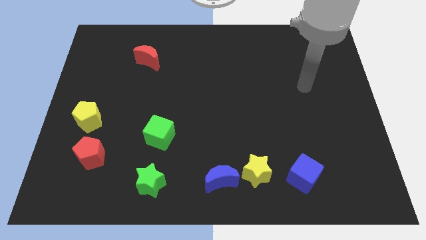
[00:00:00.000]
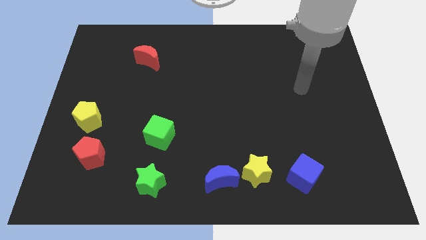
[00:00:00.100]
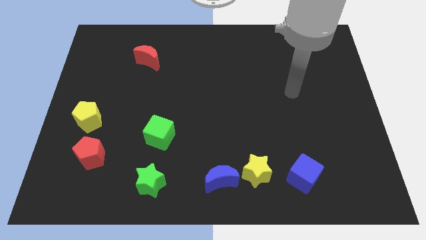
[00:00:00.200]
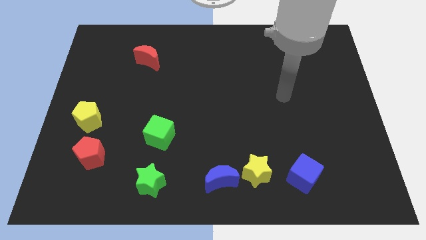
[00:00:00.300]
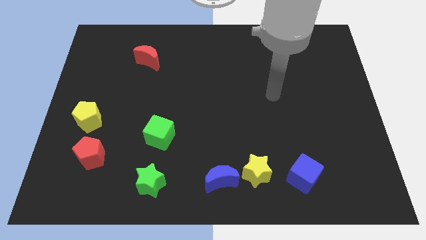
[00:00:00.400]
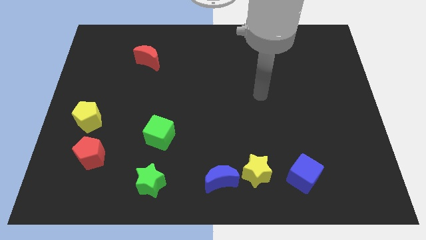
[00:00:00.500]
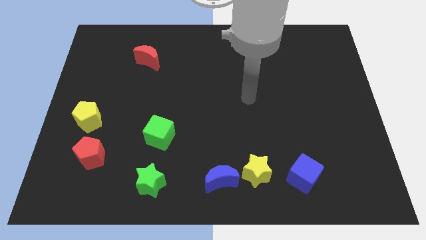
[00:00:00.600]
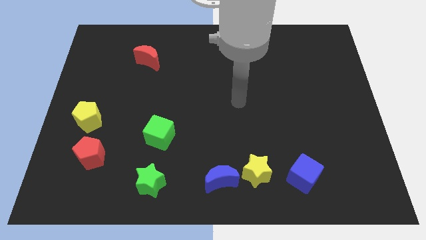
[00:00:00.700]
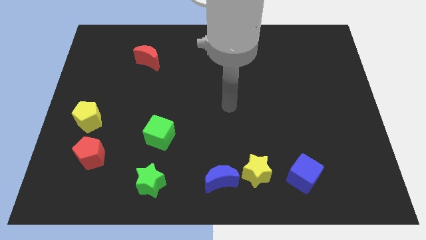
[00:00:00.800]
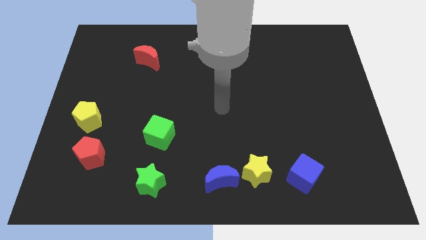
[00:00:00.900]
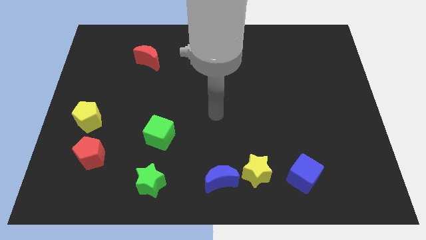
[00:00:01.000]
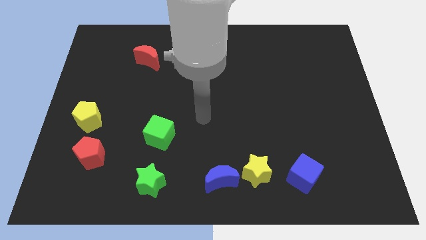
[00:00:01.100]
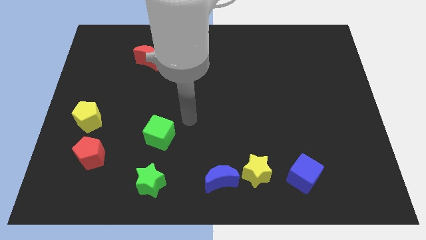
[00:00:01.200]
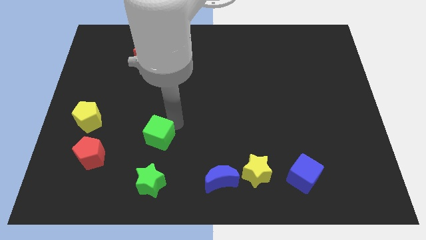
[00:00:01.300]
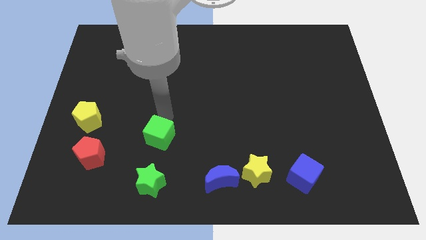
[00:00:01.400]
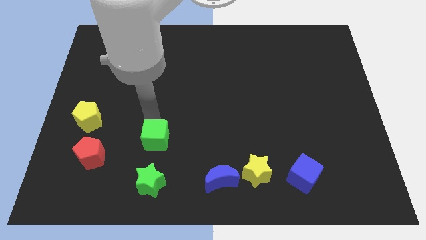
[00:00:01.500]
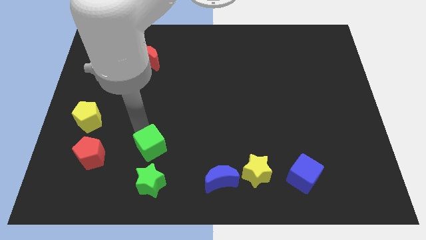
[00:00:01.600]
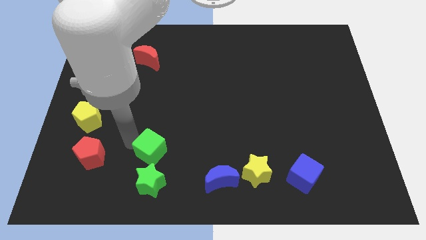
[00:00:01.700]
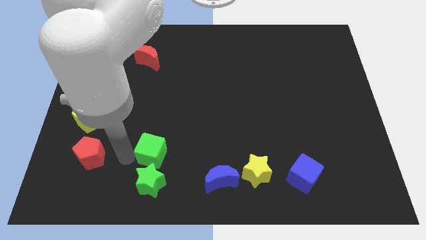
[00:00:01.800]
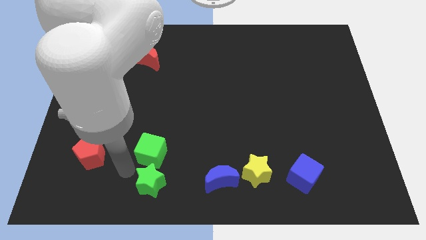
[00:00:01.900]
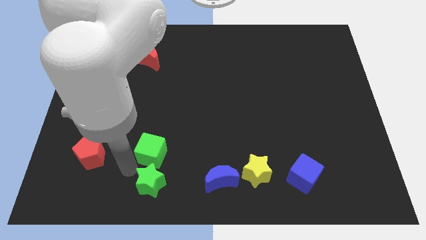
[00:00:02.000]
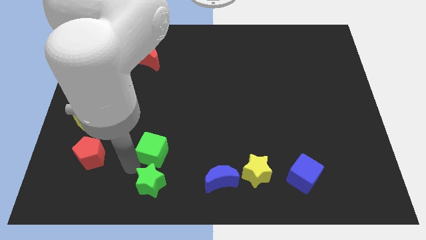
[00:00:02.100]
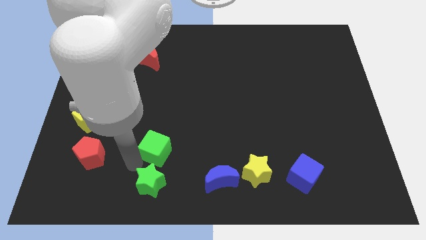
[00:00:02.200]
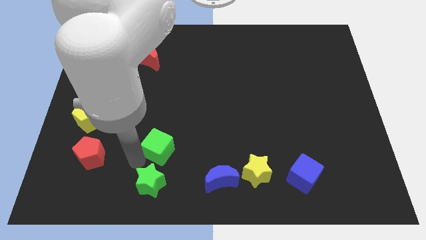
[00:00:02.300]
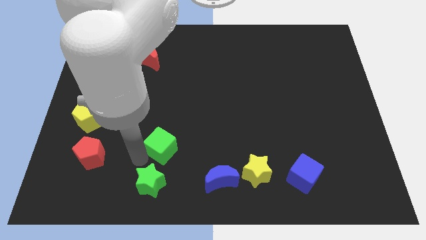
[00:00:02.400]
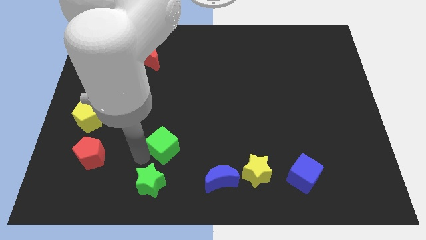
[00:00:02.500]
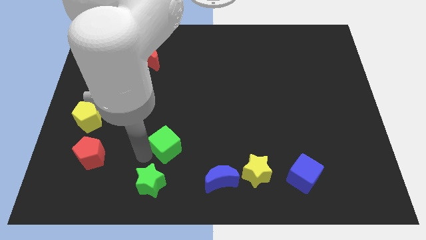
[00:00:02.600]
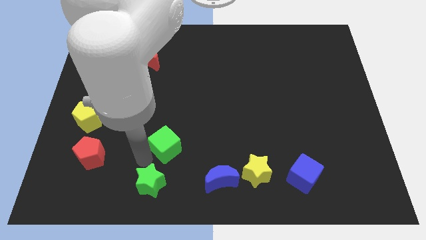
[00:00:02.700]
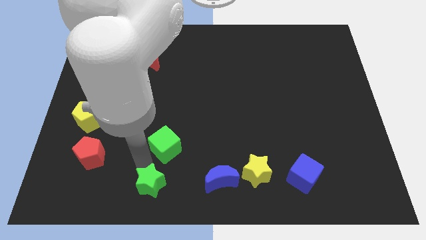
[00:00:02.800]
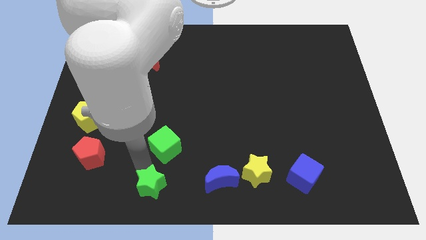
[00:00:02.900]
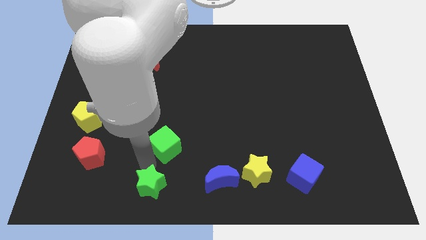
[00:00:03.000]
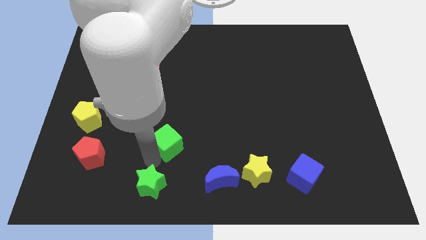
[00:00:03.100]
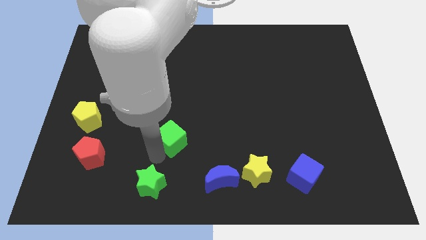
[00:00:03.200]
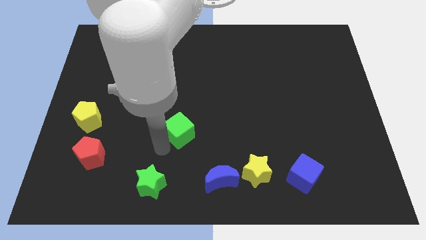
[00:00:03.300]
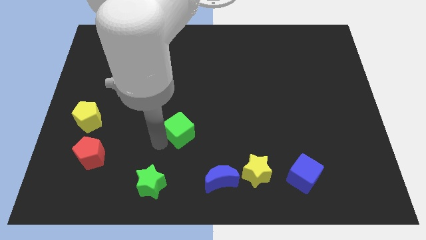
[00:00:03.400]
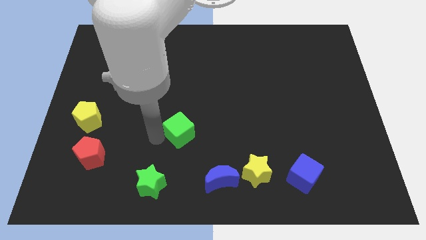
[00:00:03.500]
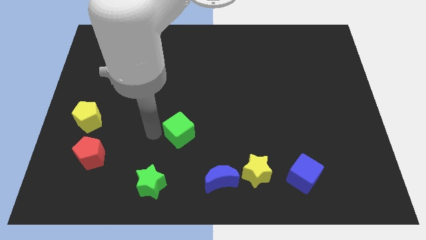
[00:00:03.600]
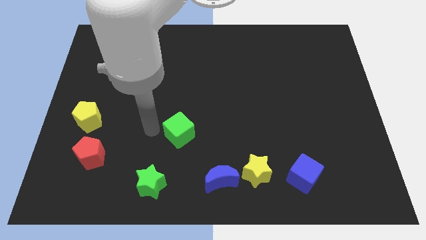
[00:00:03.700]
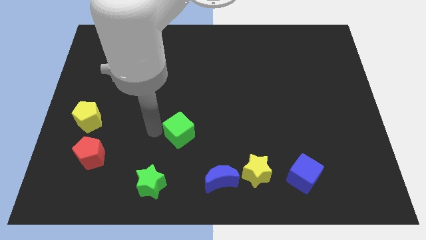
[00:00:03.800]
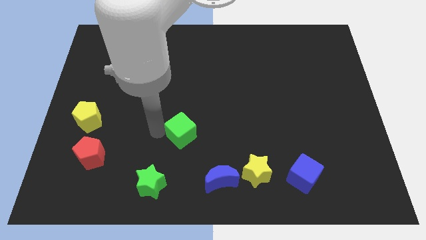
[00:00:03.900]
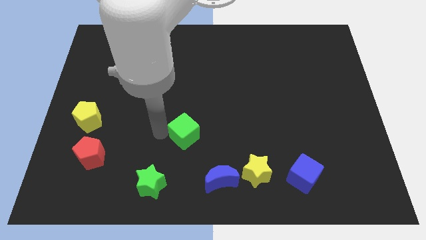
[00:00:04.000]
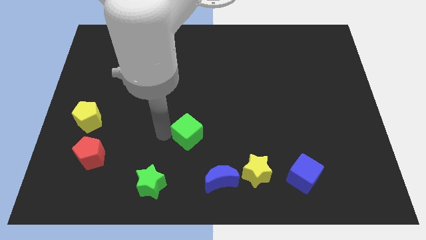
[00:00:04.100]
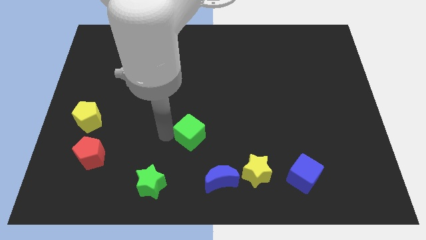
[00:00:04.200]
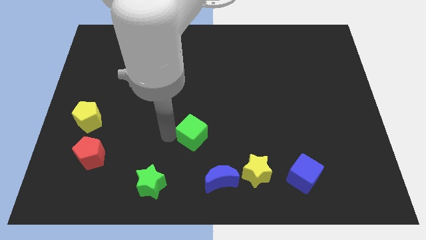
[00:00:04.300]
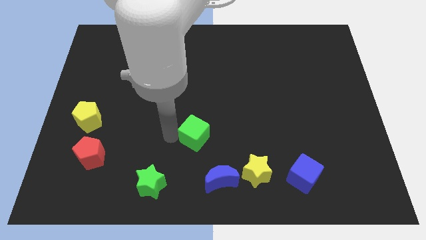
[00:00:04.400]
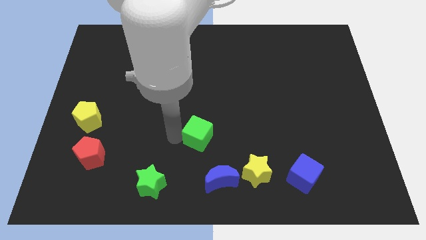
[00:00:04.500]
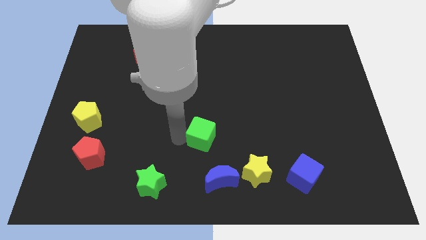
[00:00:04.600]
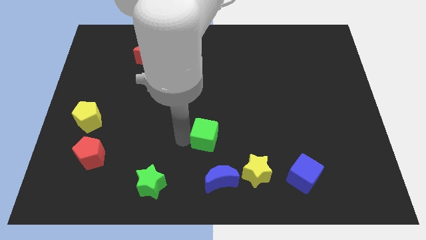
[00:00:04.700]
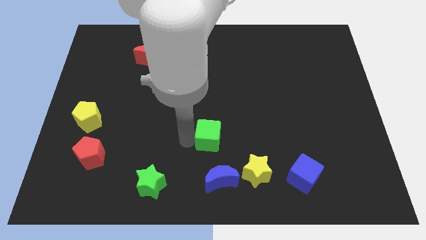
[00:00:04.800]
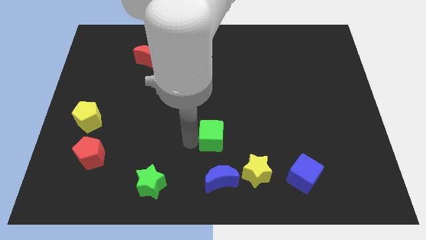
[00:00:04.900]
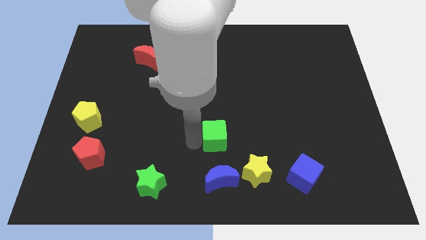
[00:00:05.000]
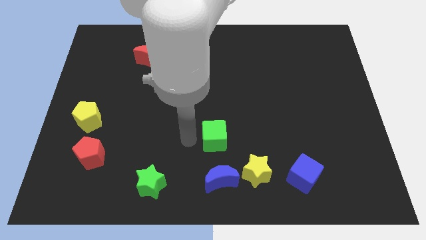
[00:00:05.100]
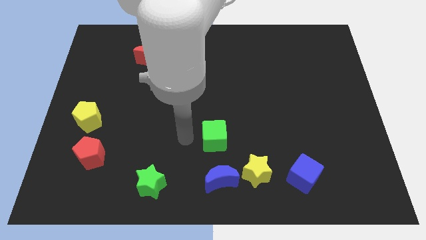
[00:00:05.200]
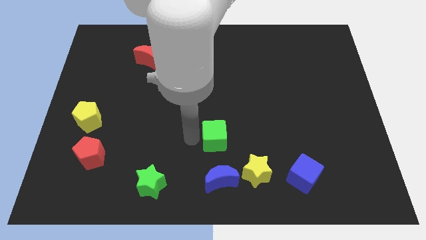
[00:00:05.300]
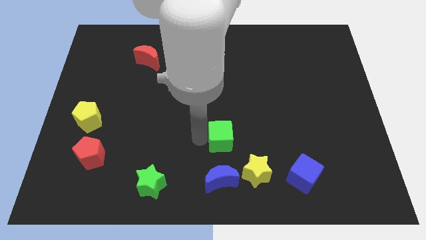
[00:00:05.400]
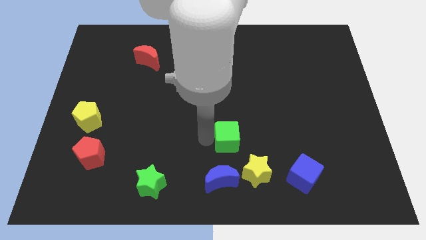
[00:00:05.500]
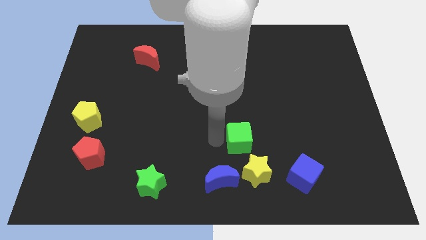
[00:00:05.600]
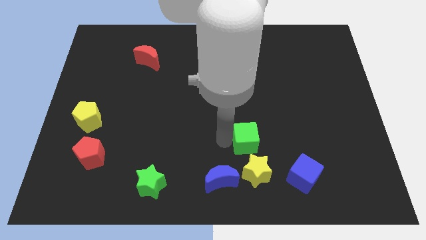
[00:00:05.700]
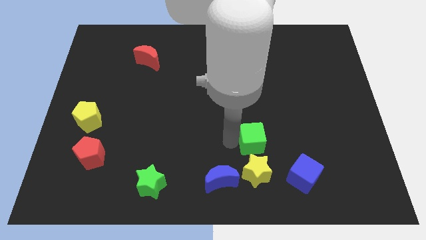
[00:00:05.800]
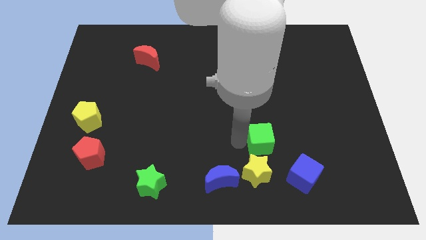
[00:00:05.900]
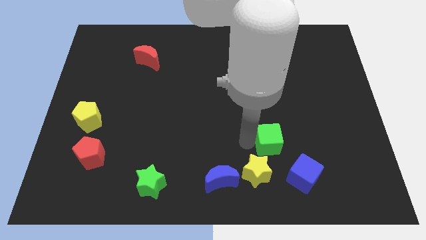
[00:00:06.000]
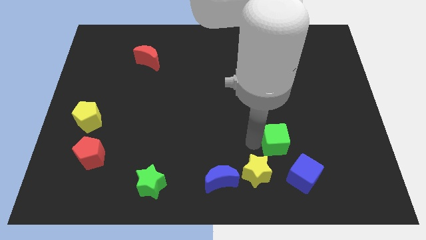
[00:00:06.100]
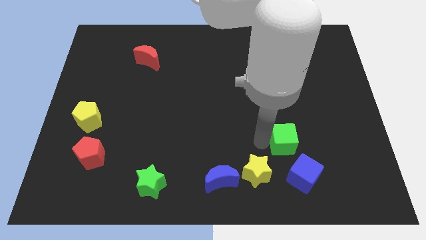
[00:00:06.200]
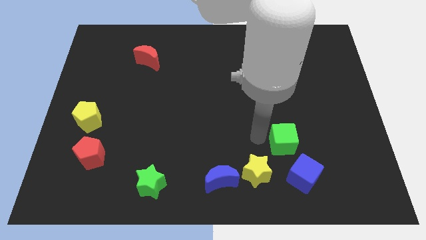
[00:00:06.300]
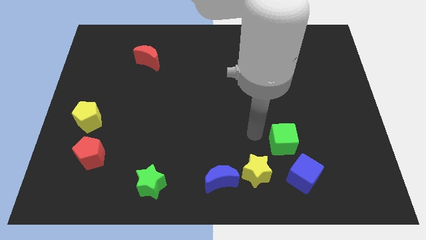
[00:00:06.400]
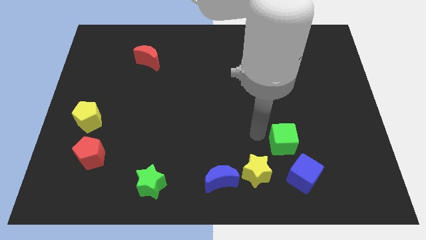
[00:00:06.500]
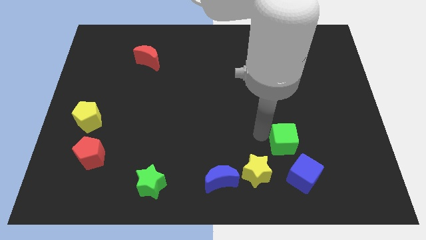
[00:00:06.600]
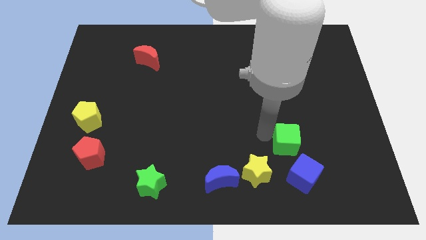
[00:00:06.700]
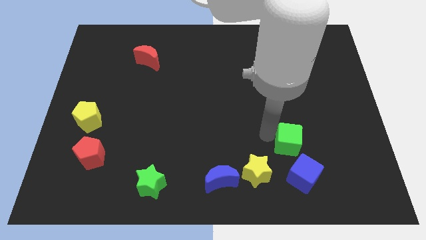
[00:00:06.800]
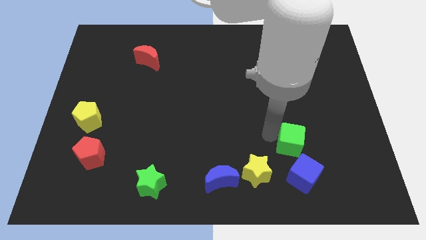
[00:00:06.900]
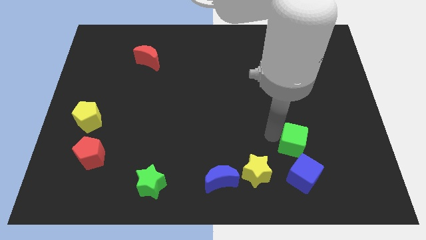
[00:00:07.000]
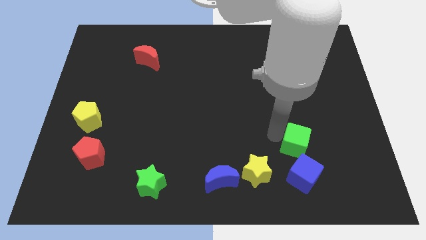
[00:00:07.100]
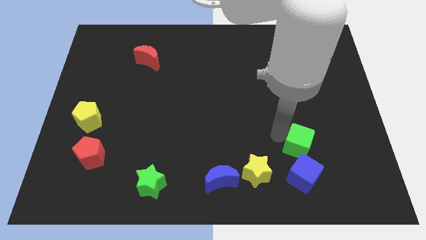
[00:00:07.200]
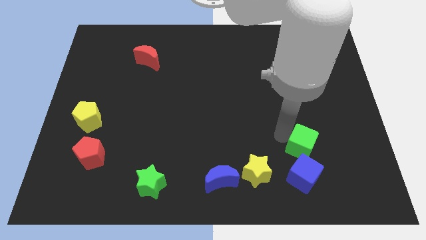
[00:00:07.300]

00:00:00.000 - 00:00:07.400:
push the green cube diagonally up and to the right of the blue cube

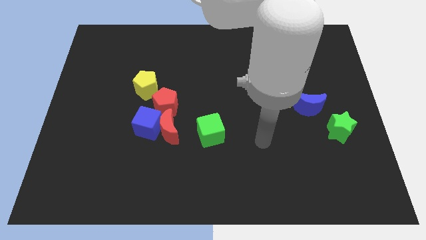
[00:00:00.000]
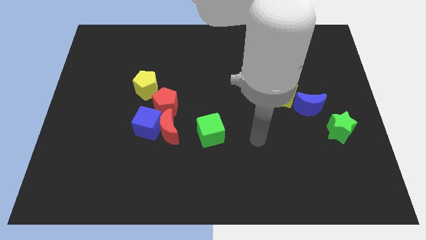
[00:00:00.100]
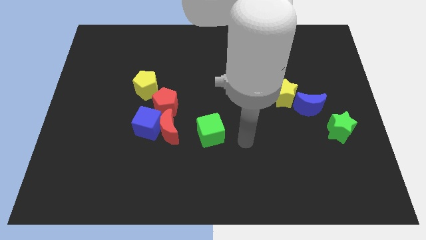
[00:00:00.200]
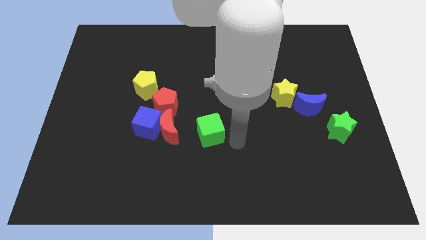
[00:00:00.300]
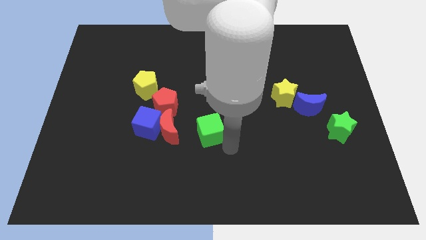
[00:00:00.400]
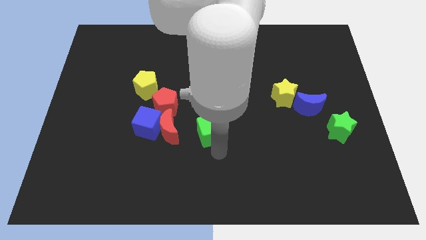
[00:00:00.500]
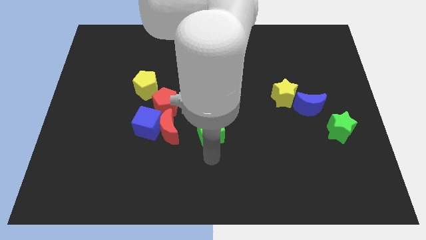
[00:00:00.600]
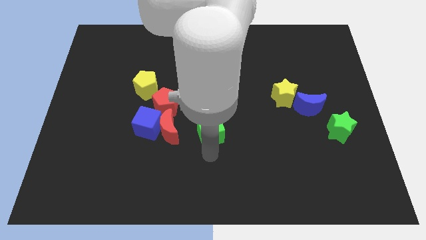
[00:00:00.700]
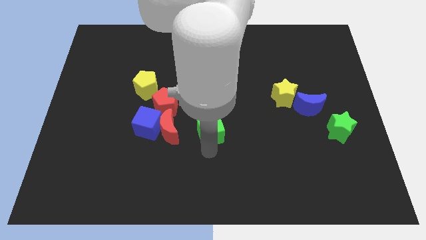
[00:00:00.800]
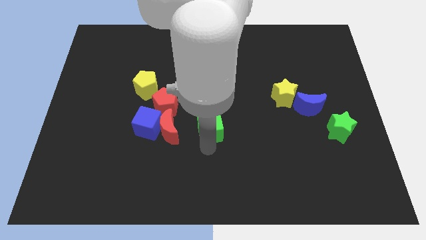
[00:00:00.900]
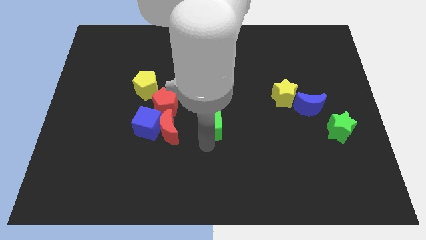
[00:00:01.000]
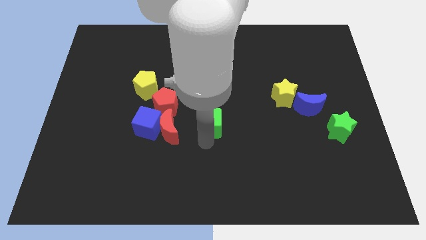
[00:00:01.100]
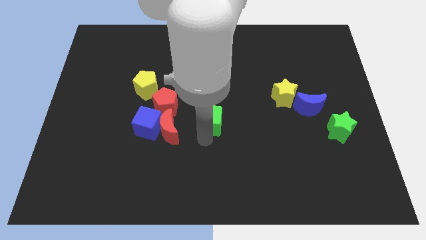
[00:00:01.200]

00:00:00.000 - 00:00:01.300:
push the green cube to the right of the red pentagon
